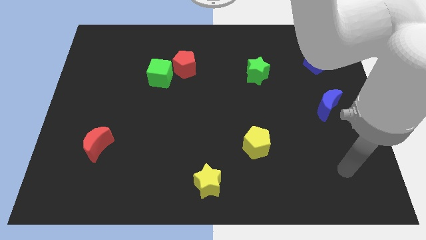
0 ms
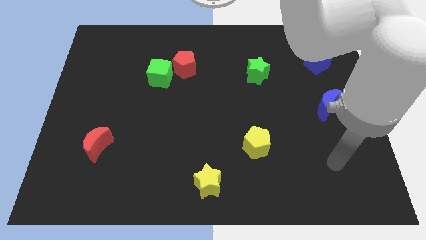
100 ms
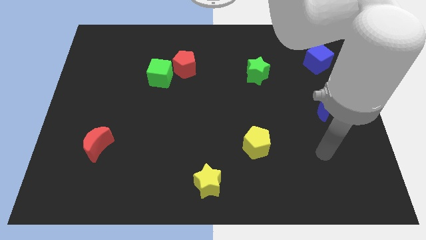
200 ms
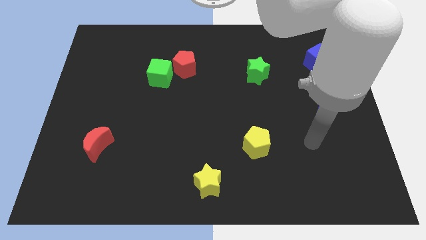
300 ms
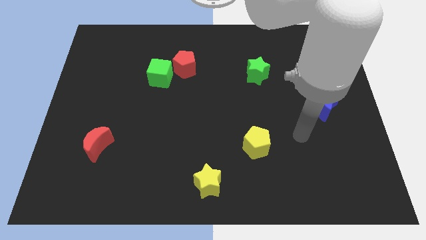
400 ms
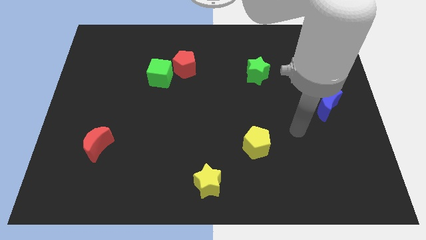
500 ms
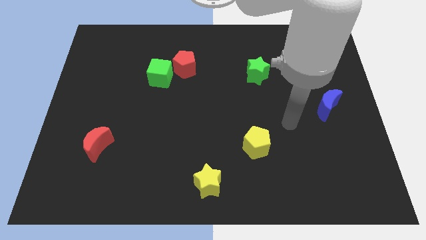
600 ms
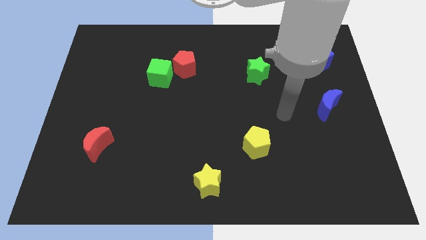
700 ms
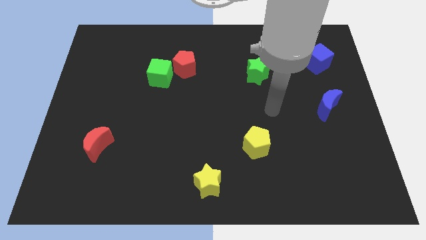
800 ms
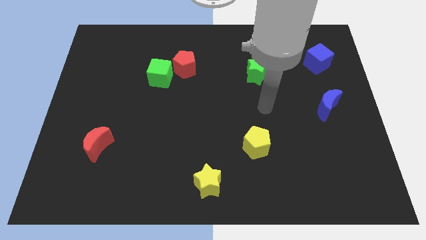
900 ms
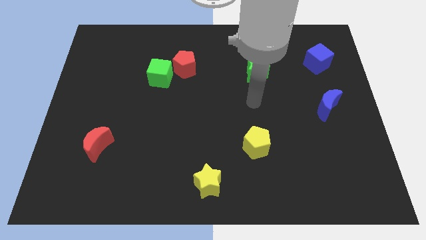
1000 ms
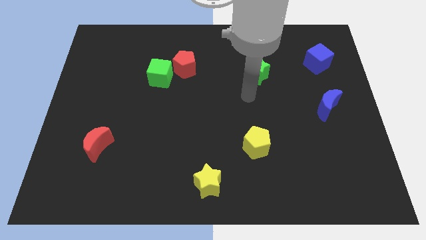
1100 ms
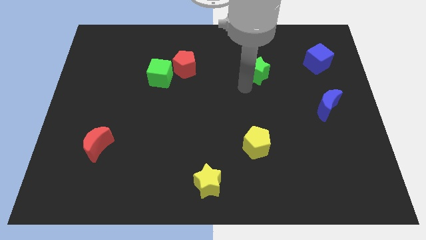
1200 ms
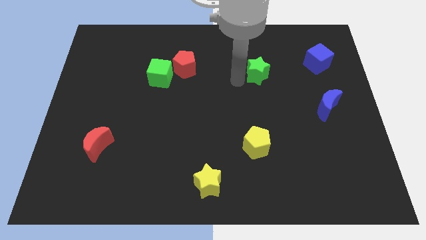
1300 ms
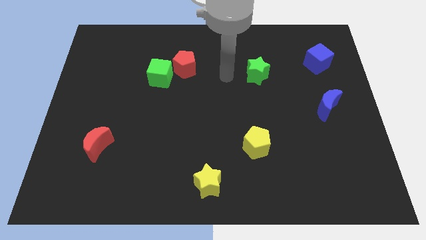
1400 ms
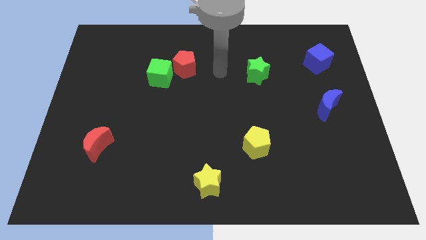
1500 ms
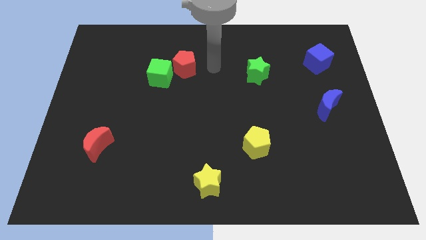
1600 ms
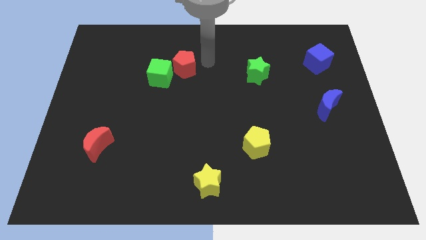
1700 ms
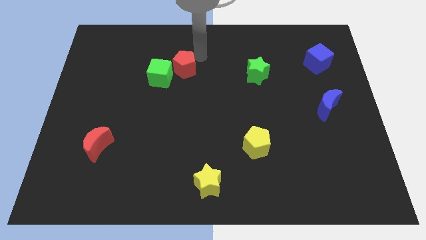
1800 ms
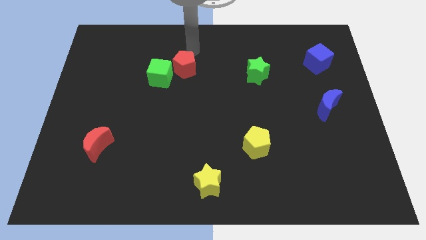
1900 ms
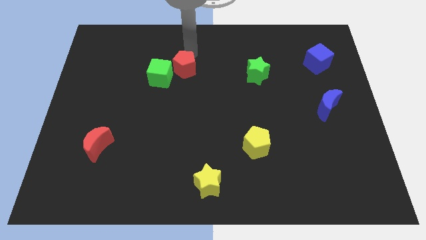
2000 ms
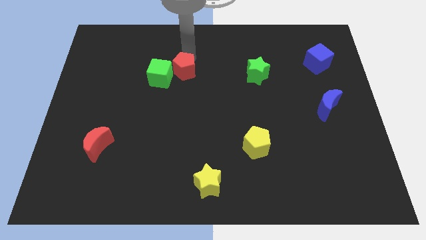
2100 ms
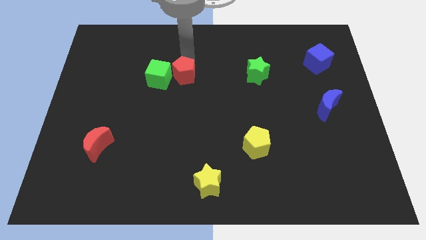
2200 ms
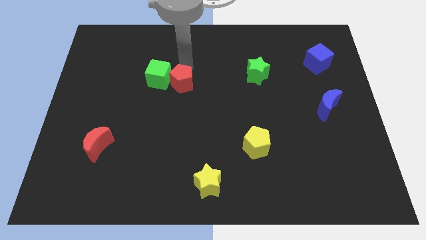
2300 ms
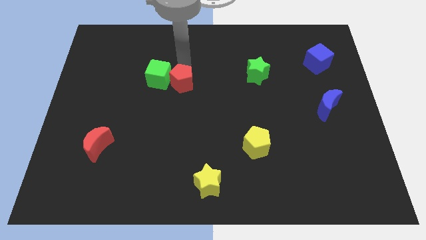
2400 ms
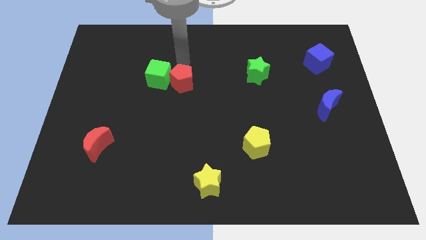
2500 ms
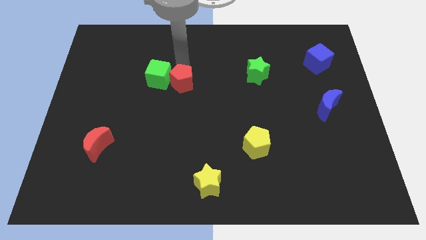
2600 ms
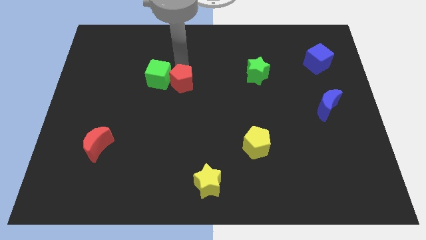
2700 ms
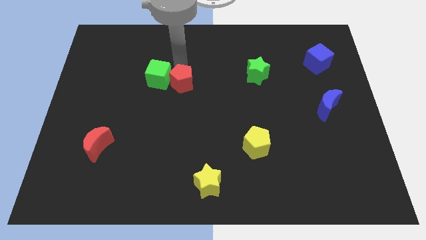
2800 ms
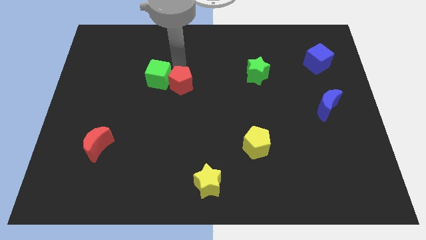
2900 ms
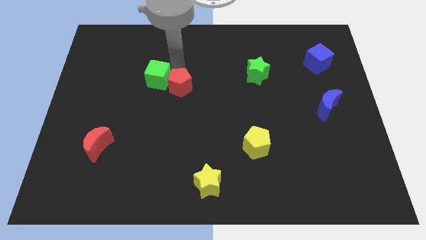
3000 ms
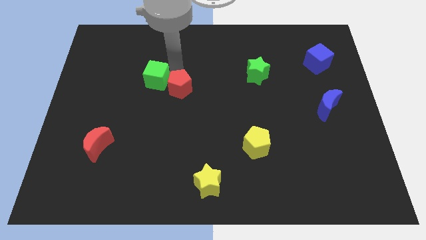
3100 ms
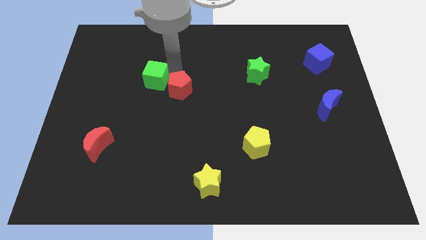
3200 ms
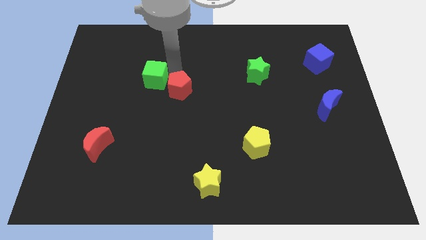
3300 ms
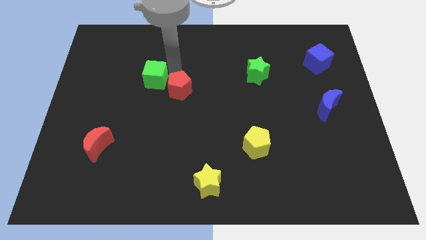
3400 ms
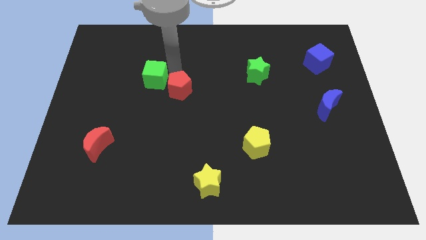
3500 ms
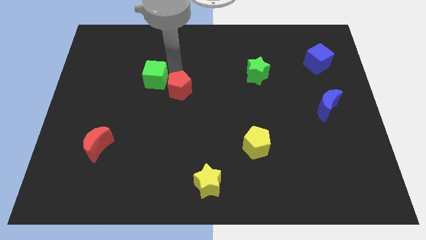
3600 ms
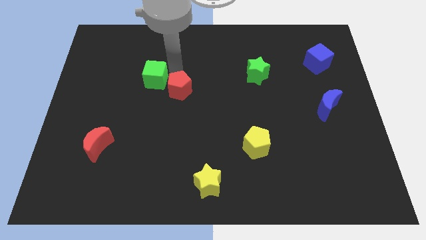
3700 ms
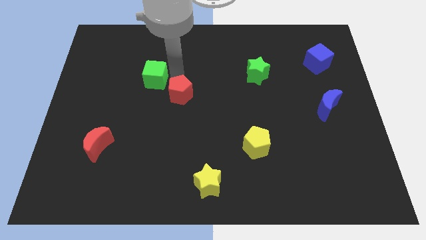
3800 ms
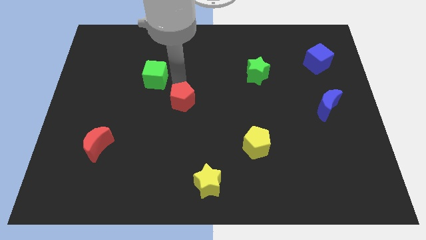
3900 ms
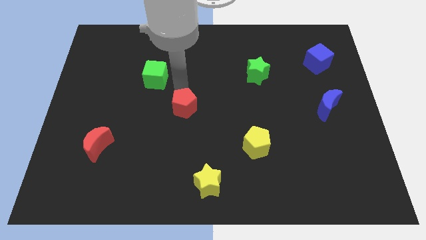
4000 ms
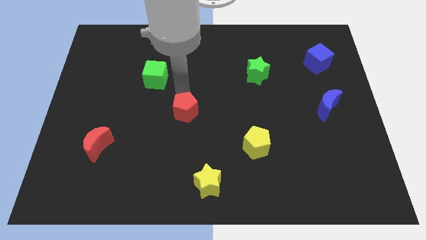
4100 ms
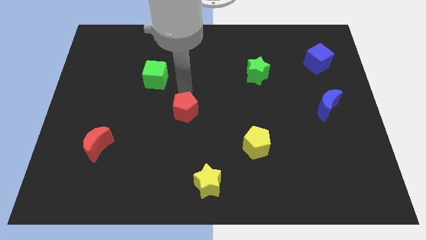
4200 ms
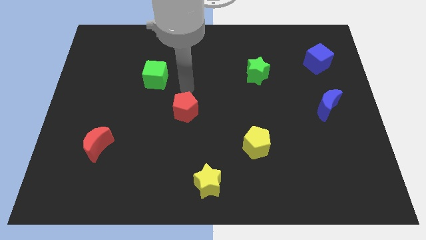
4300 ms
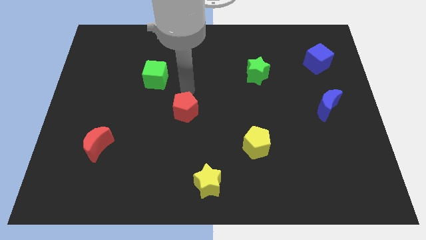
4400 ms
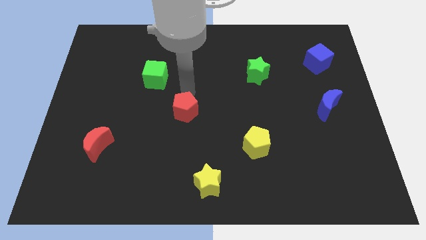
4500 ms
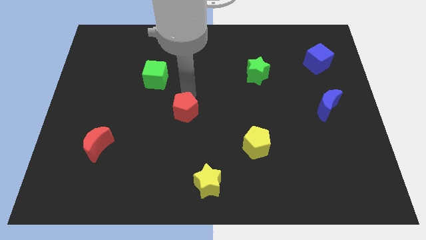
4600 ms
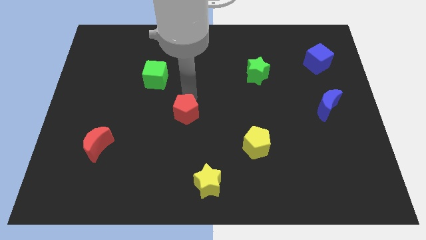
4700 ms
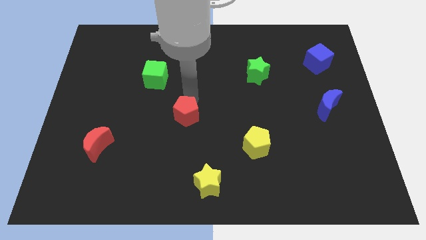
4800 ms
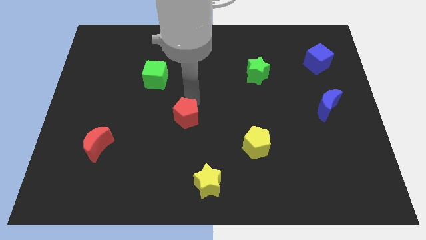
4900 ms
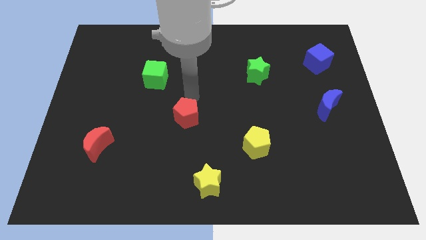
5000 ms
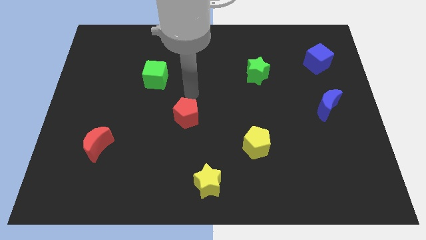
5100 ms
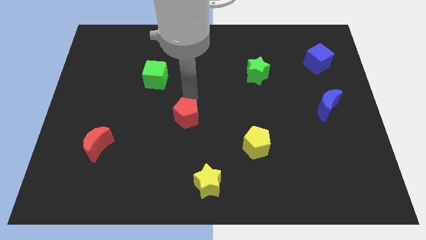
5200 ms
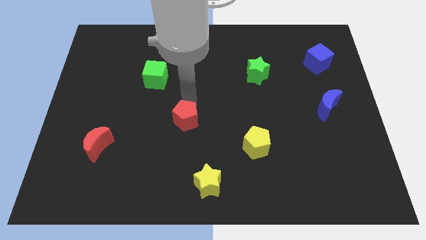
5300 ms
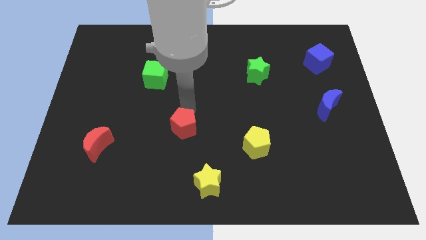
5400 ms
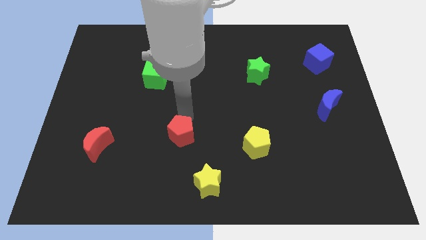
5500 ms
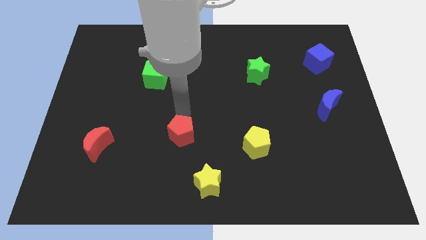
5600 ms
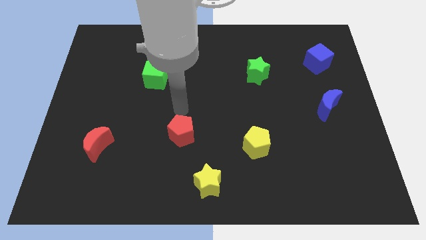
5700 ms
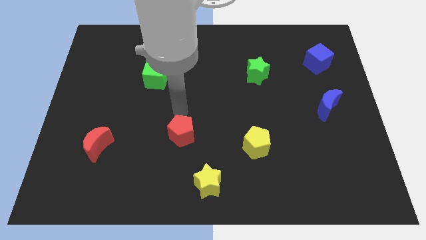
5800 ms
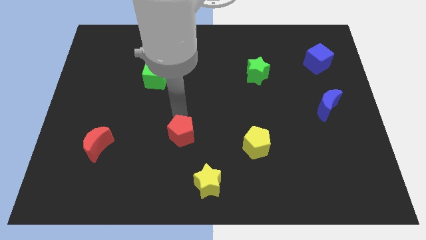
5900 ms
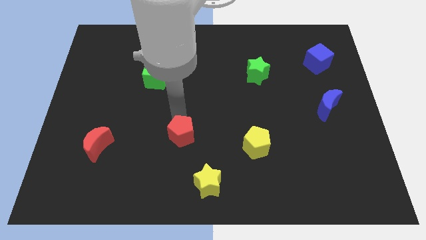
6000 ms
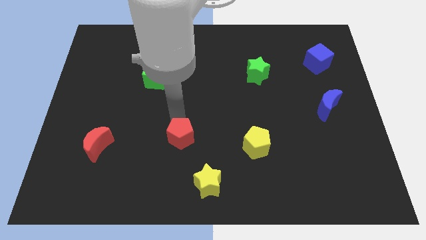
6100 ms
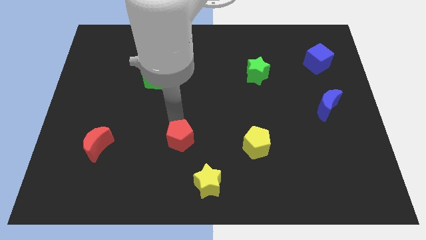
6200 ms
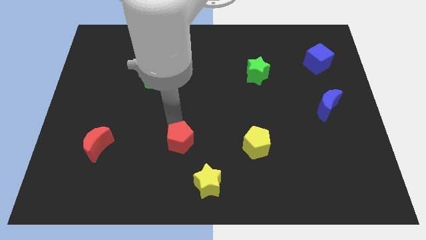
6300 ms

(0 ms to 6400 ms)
move the red pentagon to the top left of the yellow star
